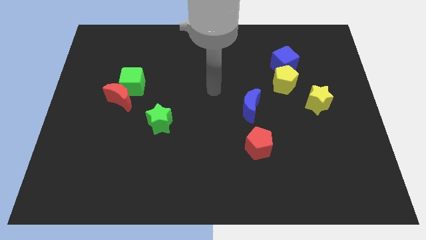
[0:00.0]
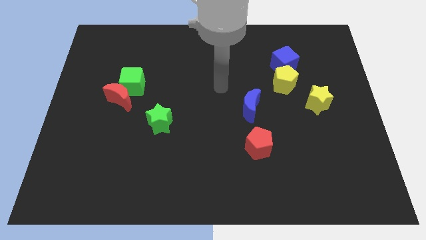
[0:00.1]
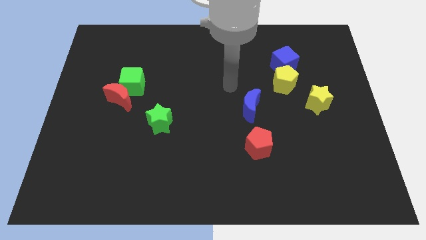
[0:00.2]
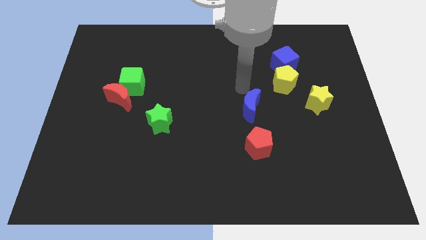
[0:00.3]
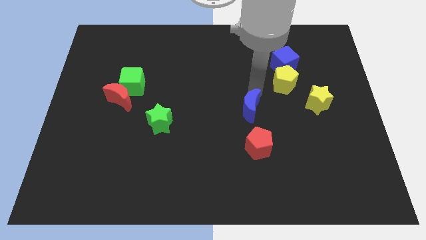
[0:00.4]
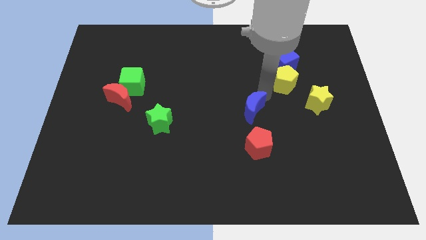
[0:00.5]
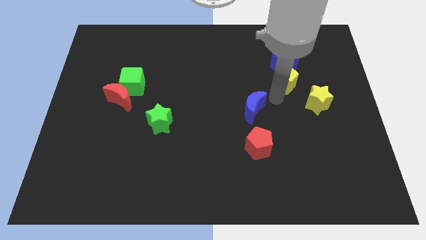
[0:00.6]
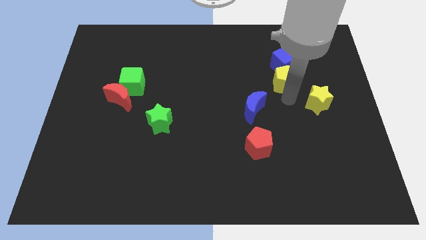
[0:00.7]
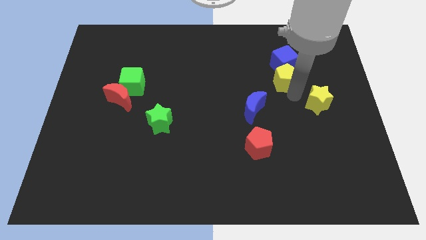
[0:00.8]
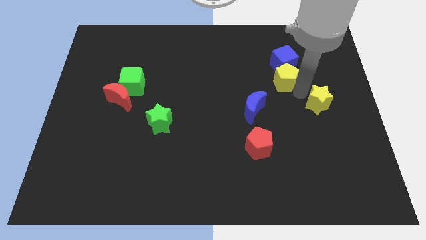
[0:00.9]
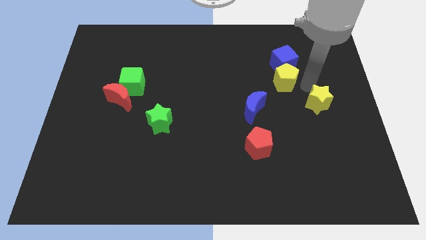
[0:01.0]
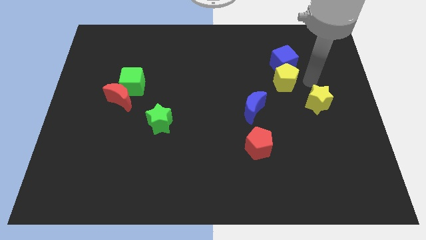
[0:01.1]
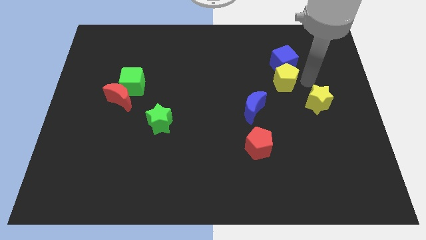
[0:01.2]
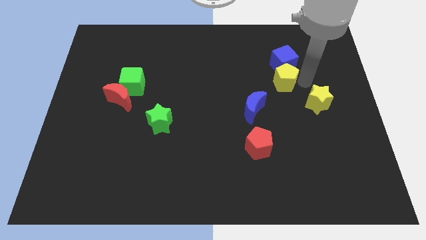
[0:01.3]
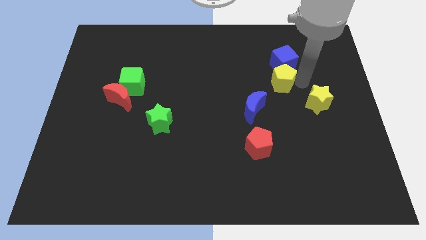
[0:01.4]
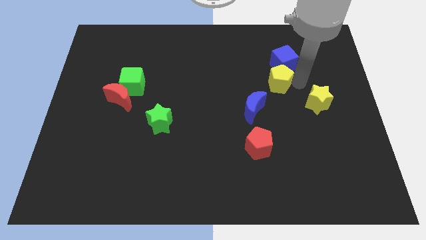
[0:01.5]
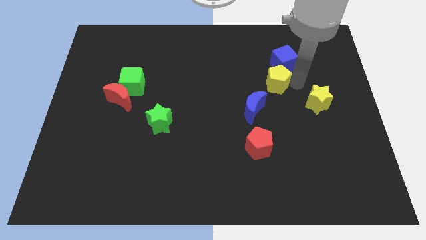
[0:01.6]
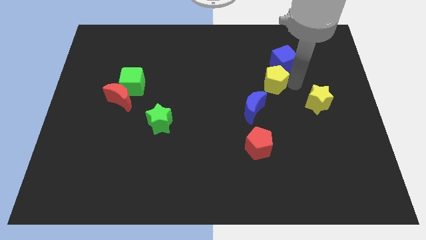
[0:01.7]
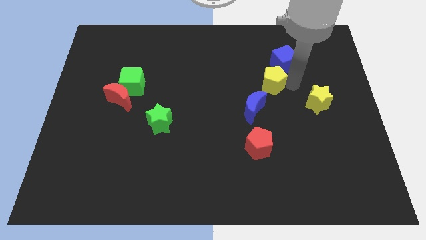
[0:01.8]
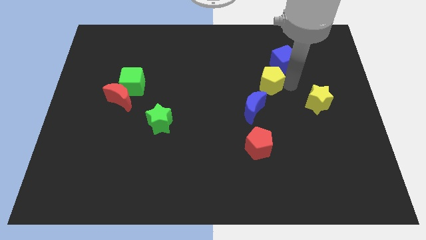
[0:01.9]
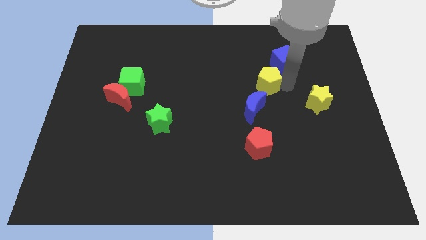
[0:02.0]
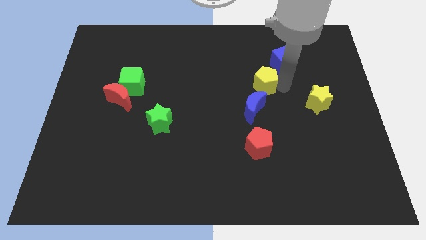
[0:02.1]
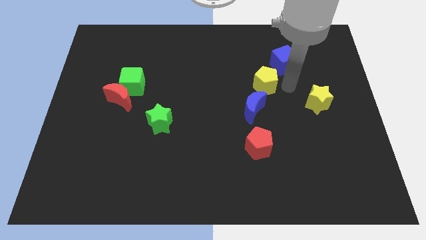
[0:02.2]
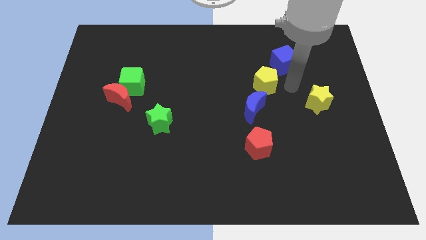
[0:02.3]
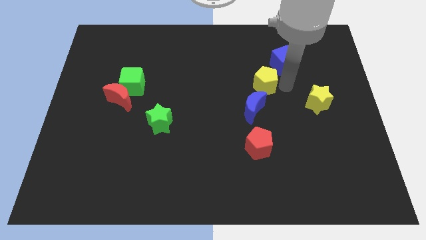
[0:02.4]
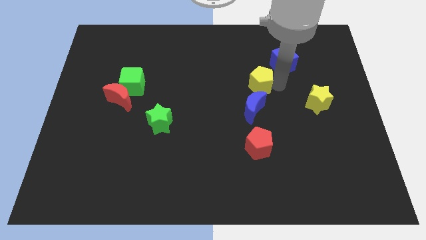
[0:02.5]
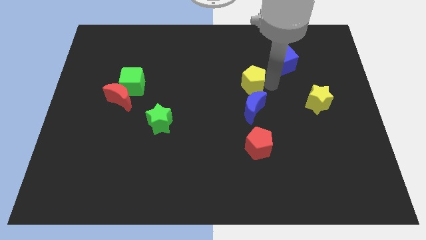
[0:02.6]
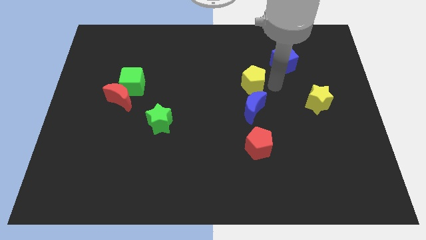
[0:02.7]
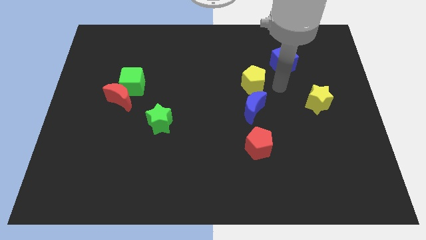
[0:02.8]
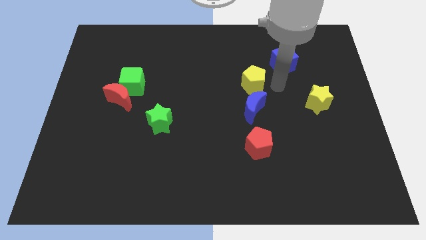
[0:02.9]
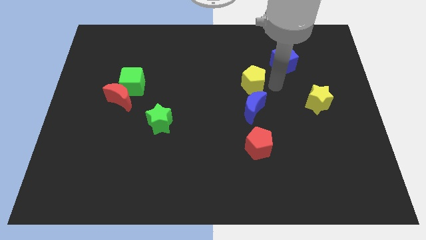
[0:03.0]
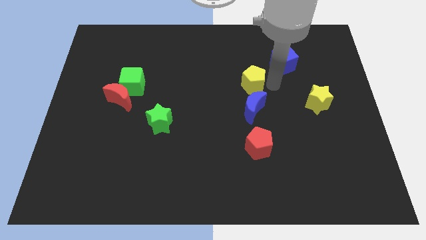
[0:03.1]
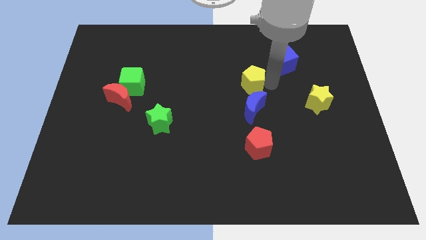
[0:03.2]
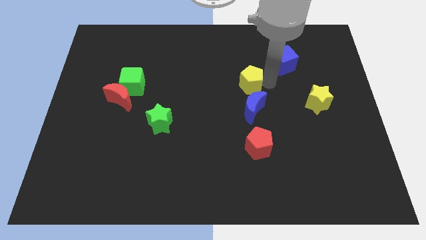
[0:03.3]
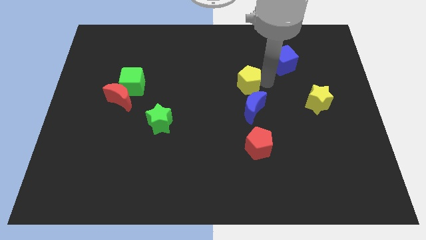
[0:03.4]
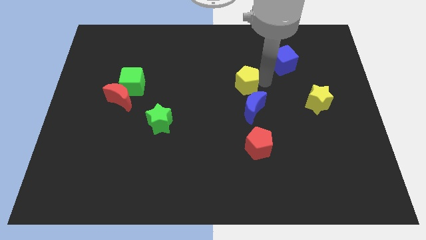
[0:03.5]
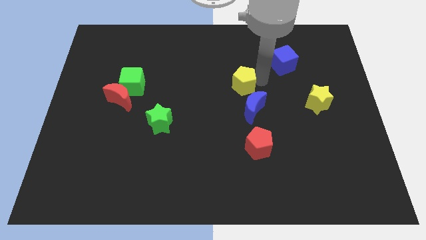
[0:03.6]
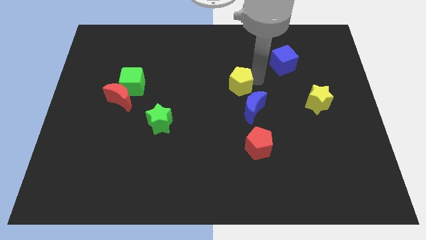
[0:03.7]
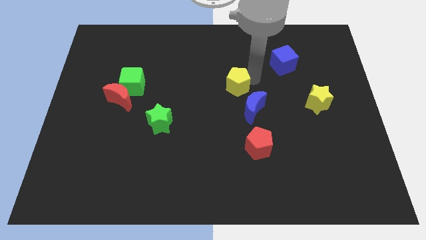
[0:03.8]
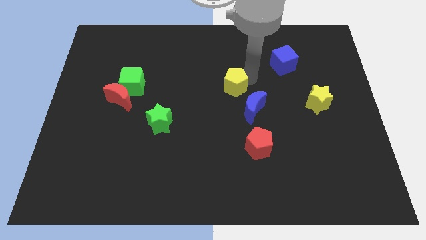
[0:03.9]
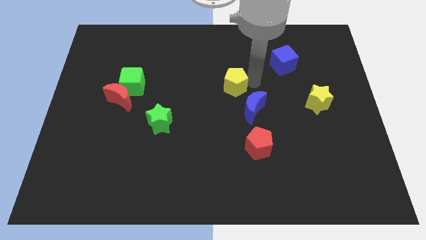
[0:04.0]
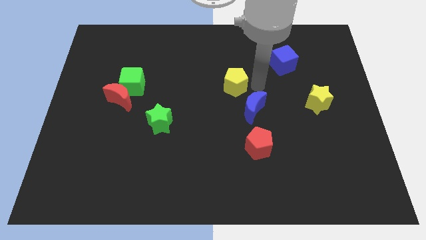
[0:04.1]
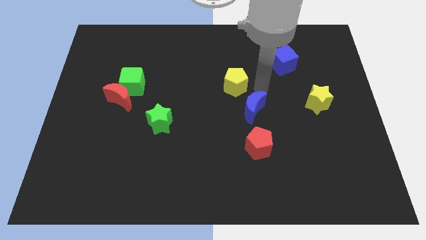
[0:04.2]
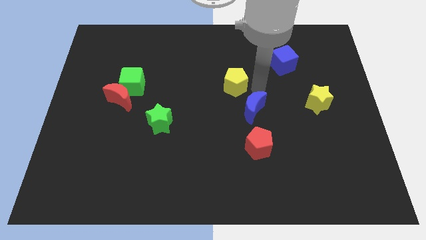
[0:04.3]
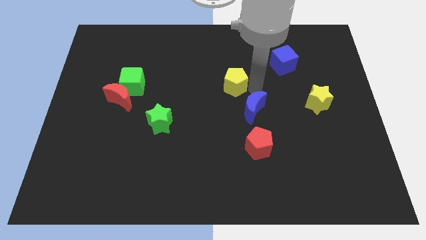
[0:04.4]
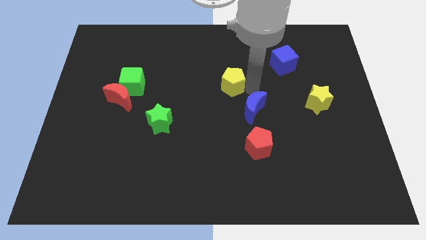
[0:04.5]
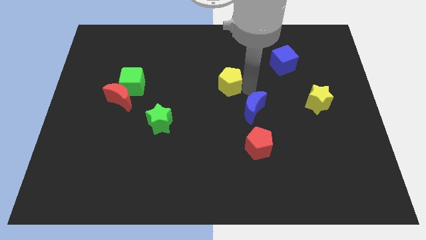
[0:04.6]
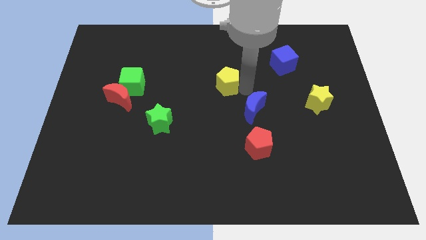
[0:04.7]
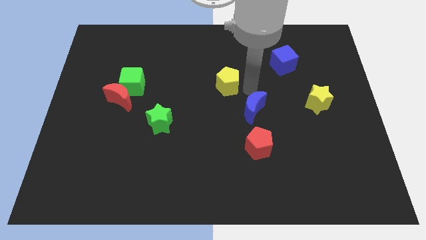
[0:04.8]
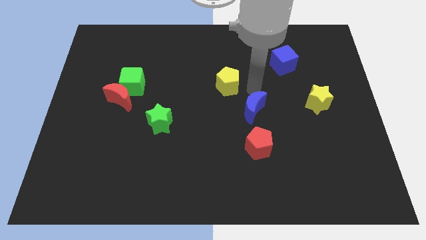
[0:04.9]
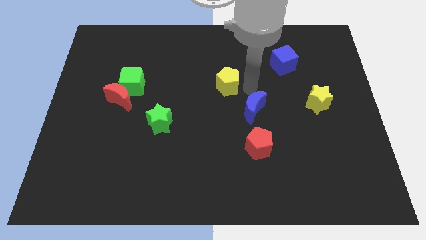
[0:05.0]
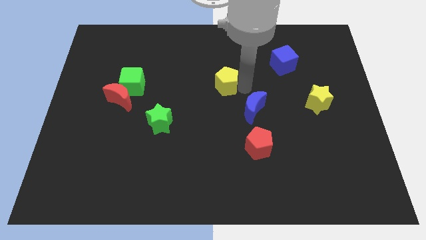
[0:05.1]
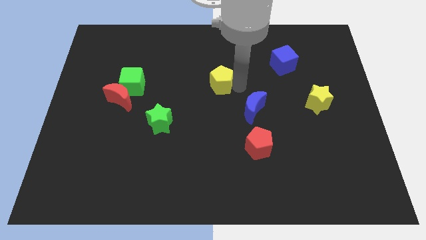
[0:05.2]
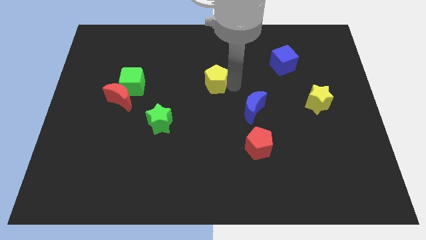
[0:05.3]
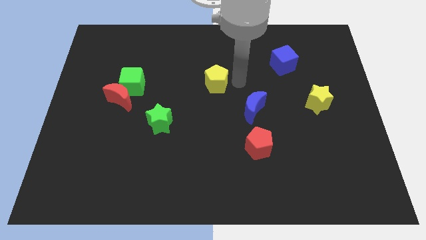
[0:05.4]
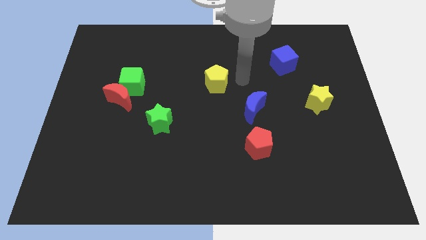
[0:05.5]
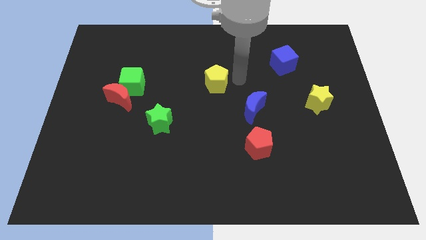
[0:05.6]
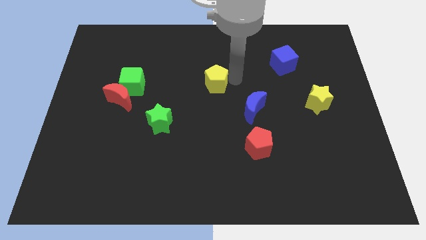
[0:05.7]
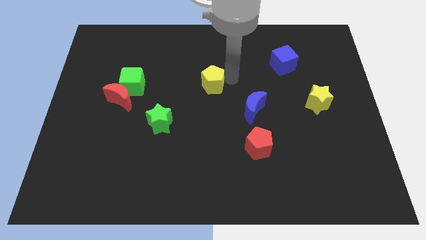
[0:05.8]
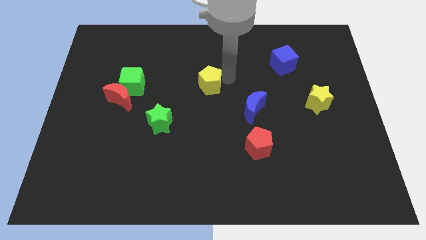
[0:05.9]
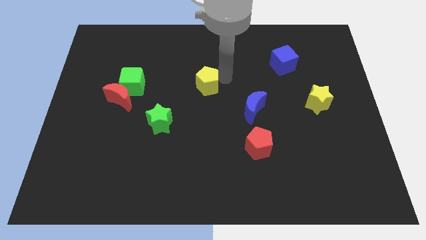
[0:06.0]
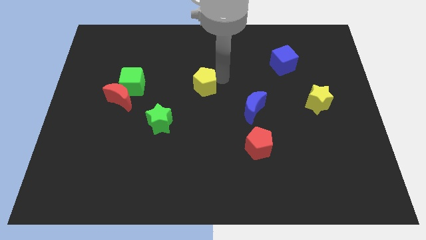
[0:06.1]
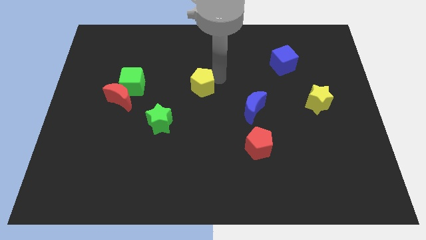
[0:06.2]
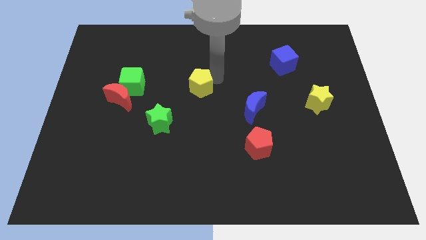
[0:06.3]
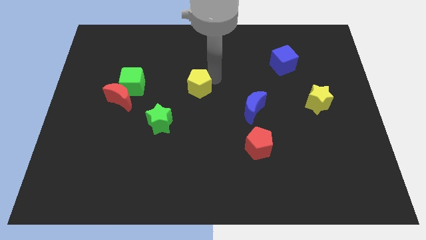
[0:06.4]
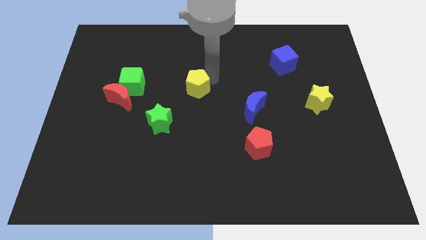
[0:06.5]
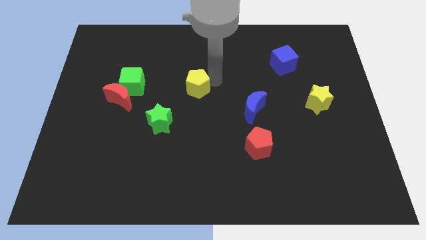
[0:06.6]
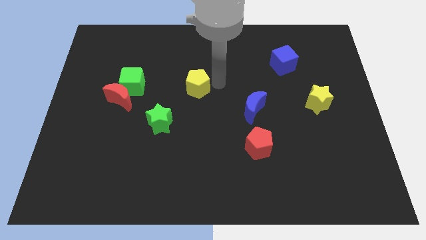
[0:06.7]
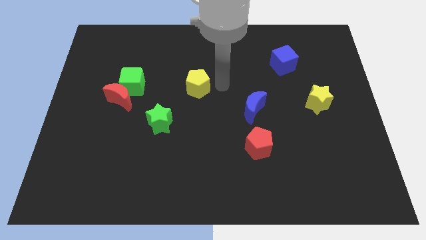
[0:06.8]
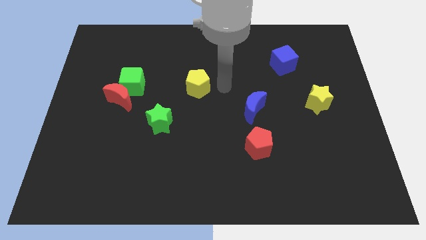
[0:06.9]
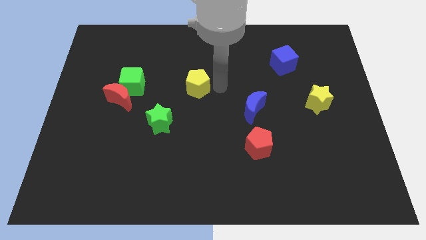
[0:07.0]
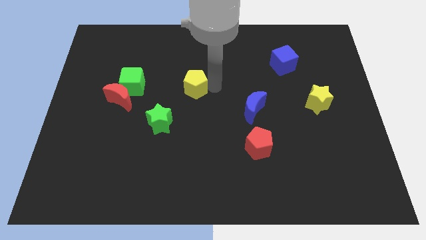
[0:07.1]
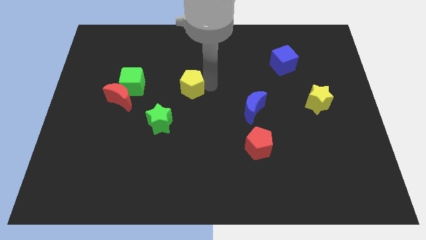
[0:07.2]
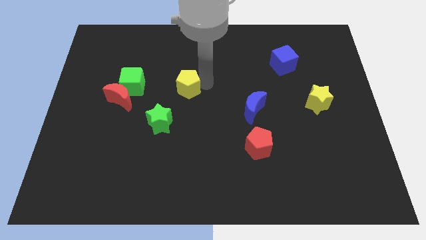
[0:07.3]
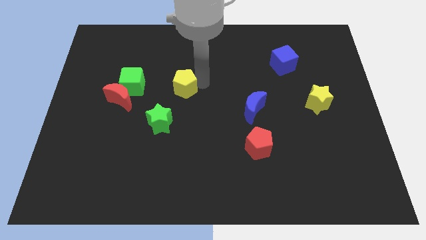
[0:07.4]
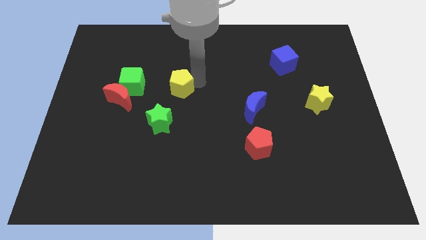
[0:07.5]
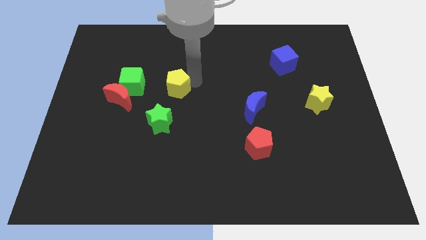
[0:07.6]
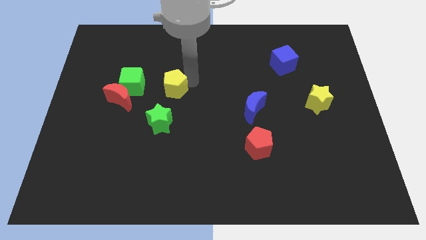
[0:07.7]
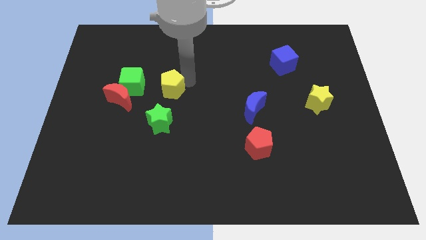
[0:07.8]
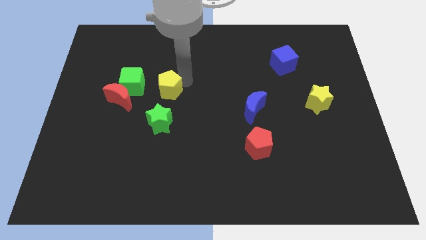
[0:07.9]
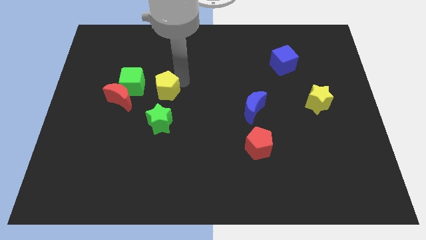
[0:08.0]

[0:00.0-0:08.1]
push the yellow pentagon to the bottom right side of the green cube

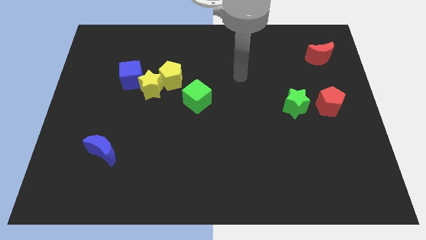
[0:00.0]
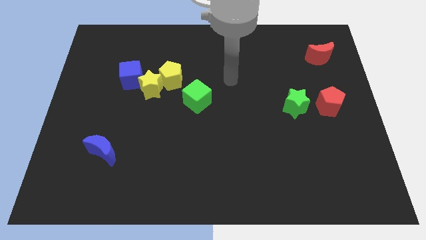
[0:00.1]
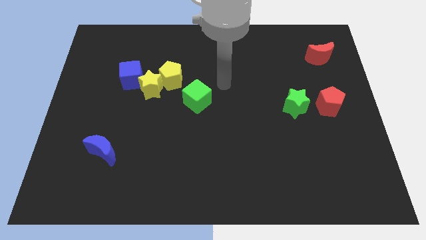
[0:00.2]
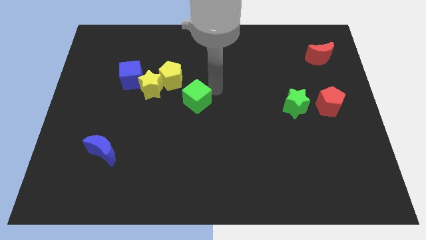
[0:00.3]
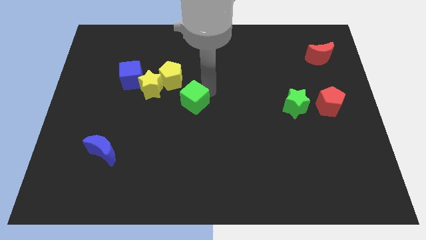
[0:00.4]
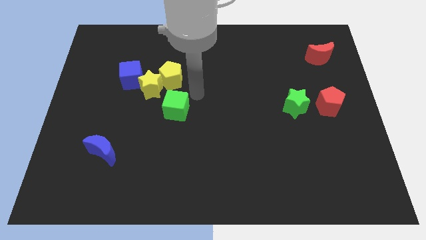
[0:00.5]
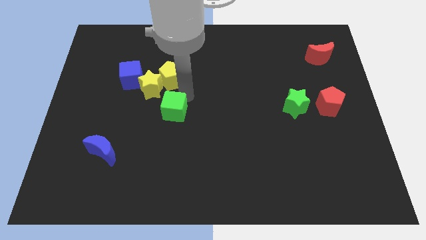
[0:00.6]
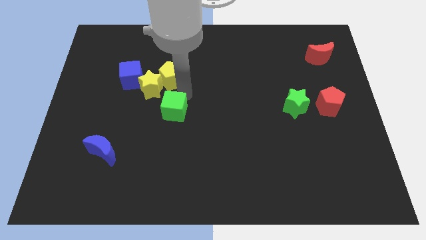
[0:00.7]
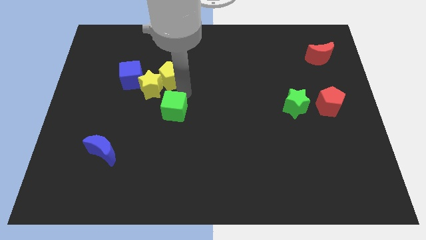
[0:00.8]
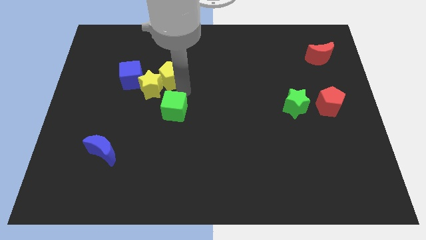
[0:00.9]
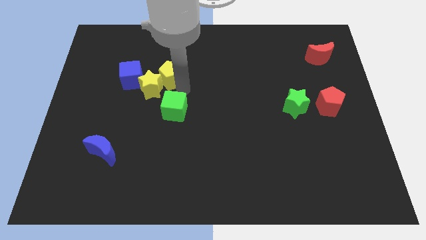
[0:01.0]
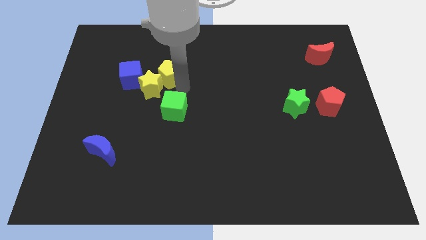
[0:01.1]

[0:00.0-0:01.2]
put the yellow pentagon to the top side of the yellow star
